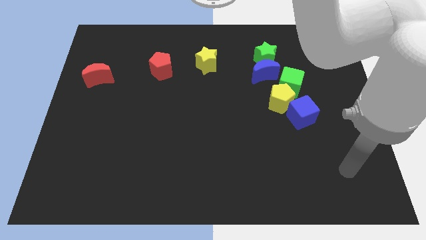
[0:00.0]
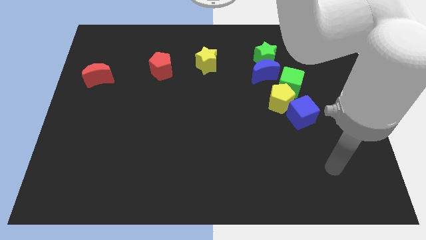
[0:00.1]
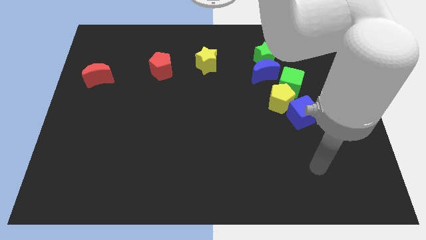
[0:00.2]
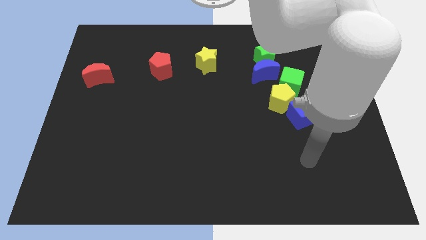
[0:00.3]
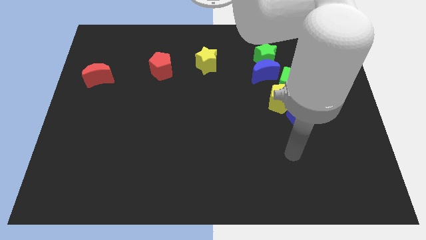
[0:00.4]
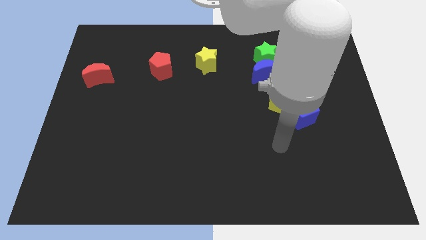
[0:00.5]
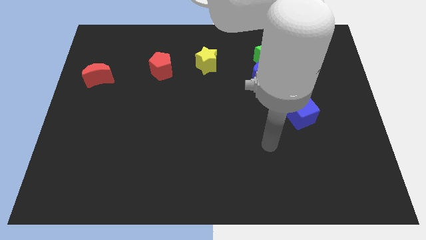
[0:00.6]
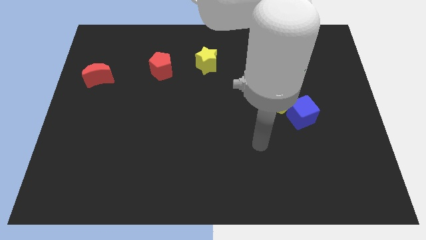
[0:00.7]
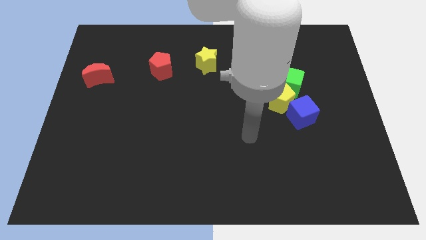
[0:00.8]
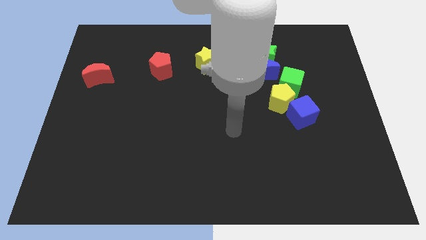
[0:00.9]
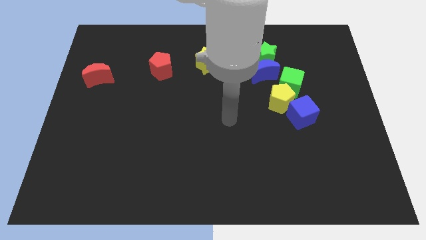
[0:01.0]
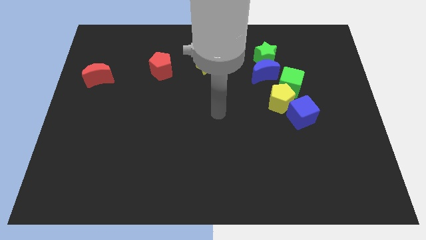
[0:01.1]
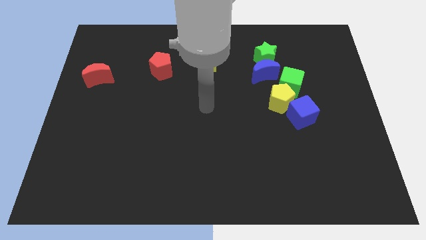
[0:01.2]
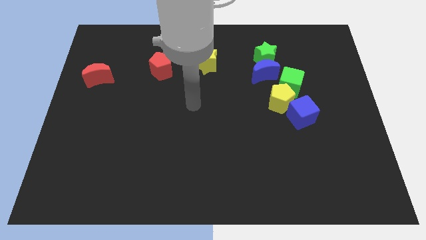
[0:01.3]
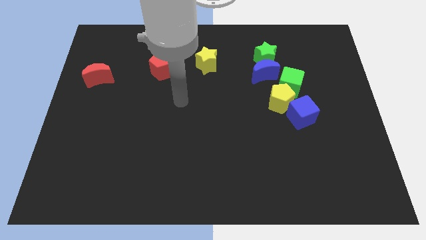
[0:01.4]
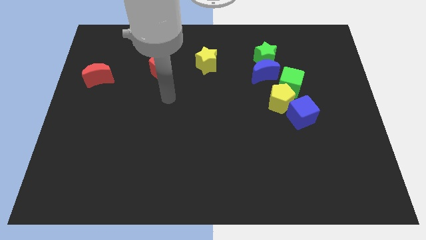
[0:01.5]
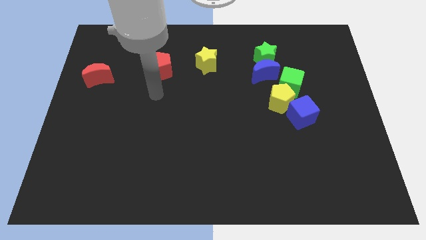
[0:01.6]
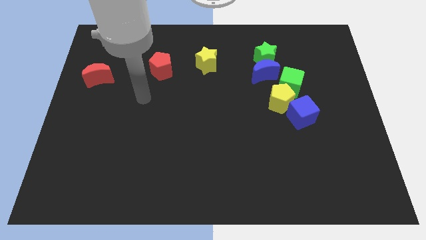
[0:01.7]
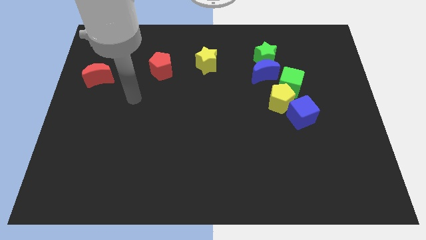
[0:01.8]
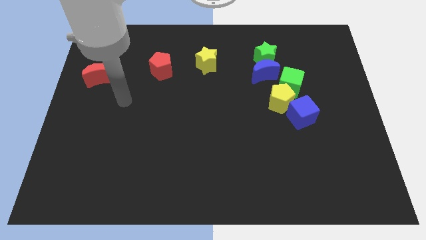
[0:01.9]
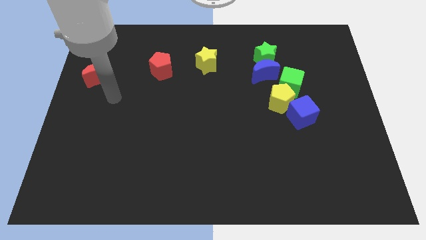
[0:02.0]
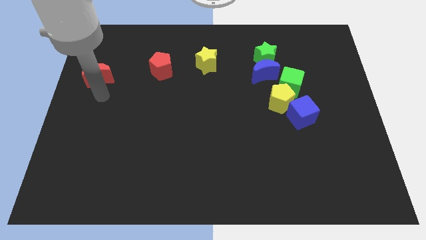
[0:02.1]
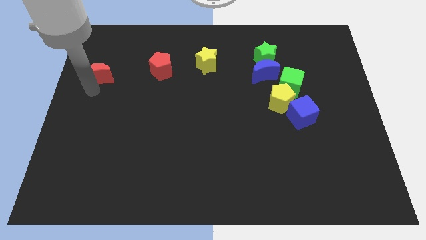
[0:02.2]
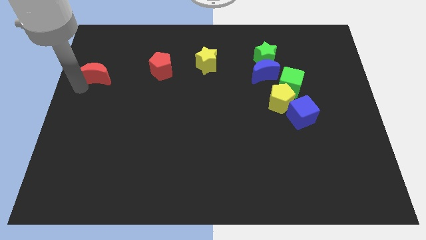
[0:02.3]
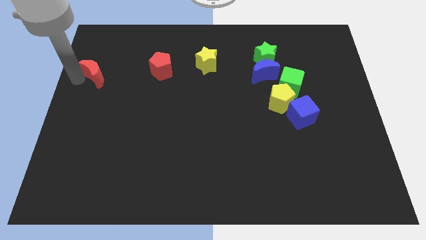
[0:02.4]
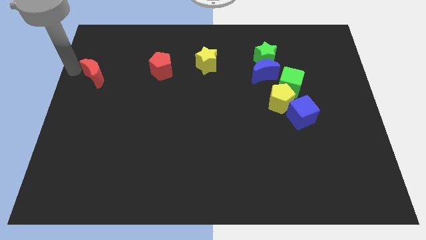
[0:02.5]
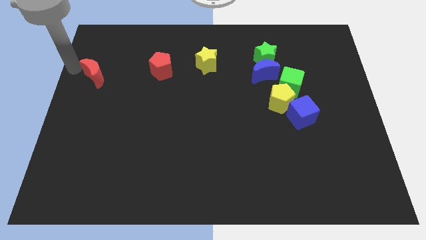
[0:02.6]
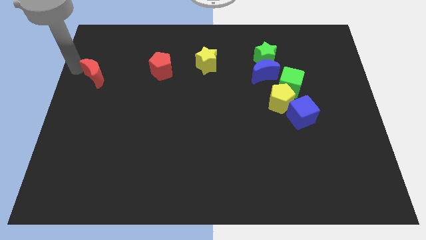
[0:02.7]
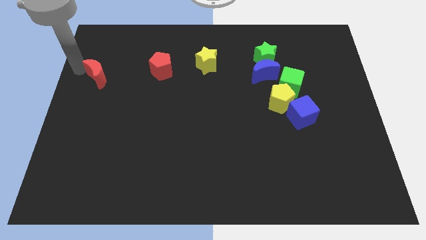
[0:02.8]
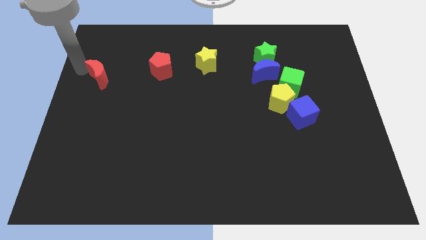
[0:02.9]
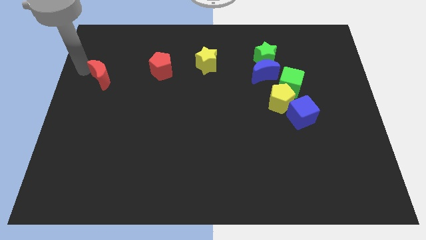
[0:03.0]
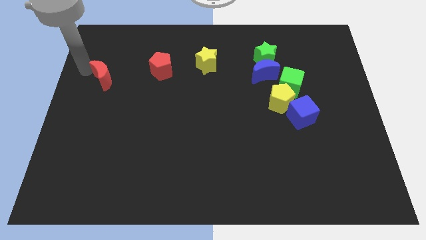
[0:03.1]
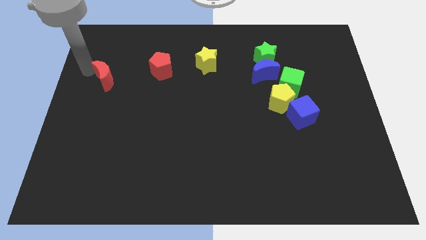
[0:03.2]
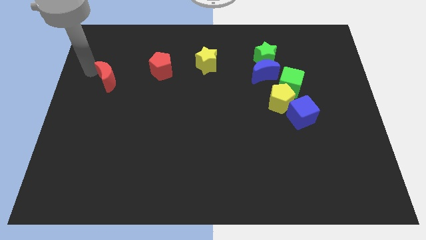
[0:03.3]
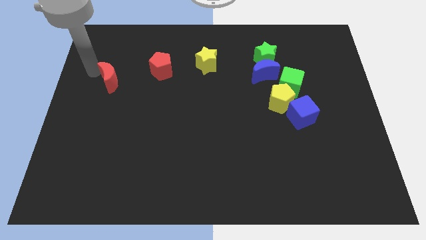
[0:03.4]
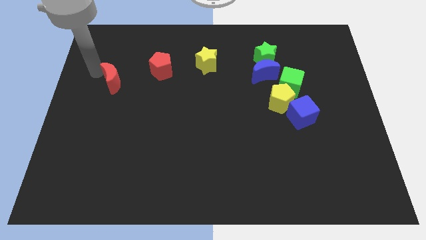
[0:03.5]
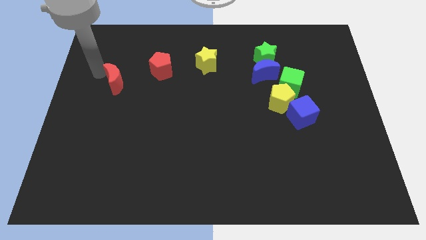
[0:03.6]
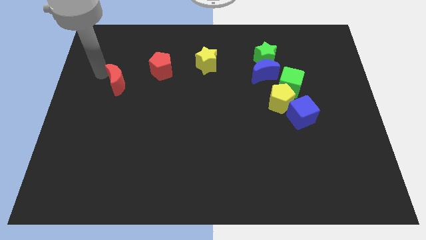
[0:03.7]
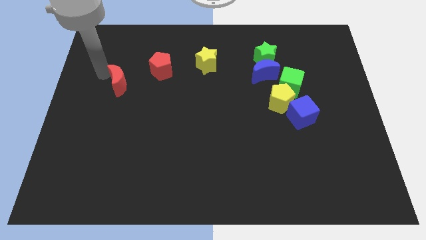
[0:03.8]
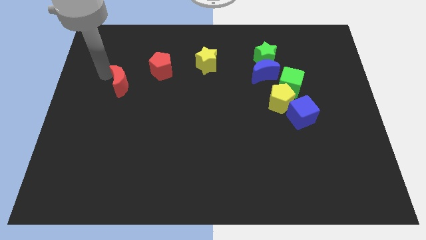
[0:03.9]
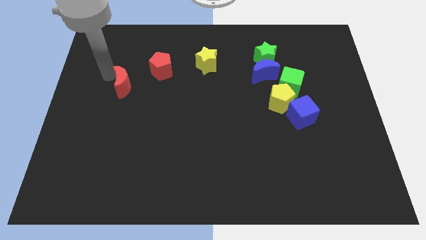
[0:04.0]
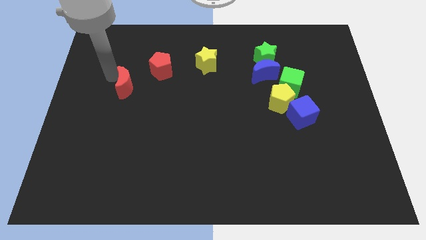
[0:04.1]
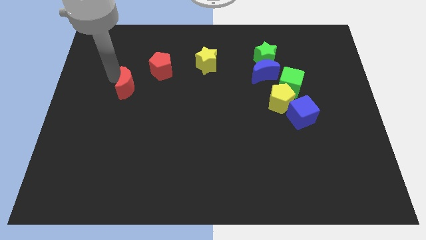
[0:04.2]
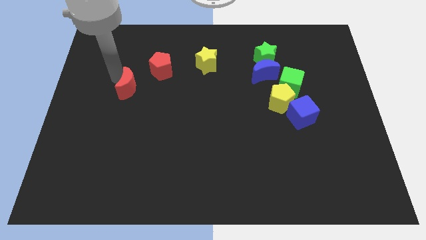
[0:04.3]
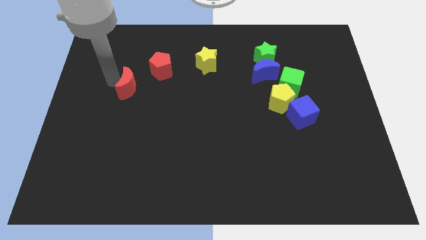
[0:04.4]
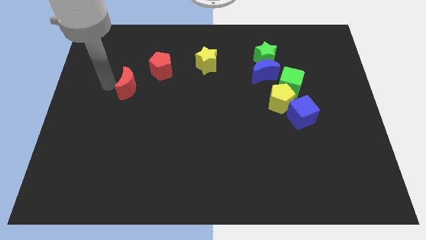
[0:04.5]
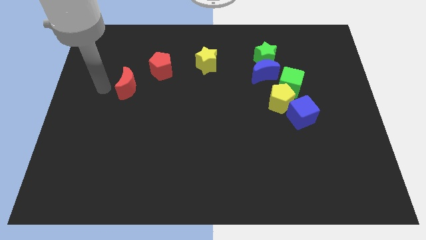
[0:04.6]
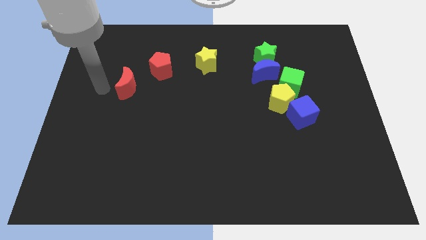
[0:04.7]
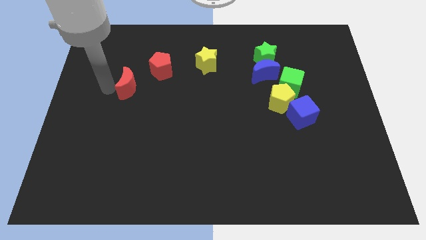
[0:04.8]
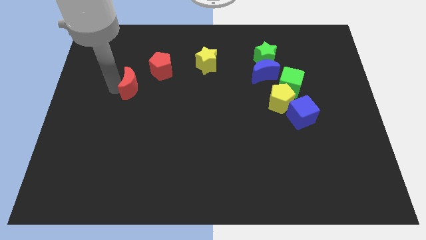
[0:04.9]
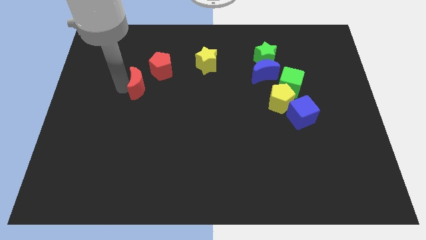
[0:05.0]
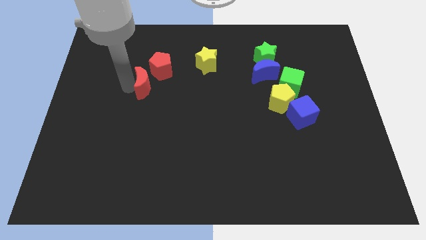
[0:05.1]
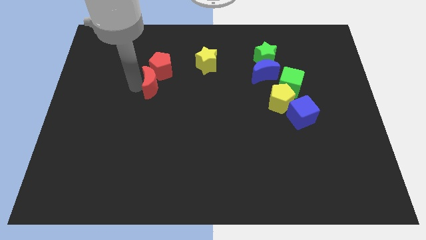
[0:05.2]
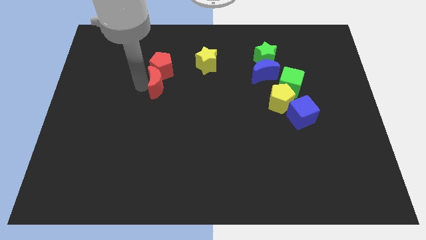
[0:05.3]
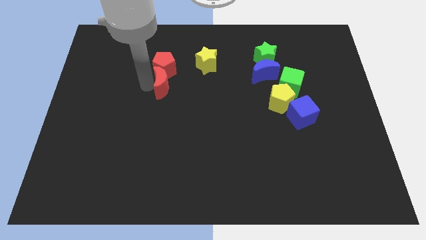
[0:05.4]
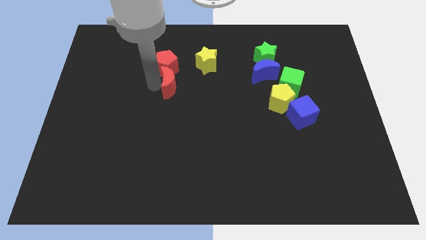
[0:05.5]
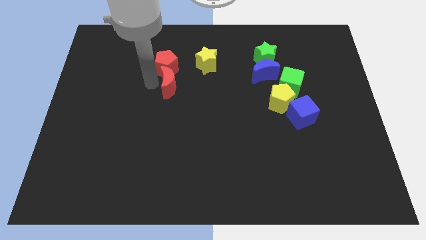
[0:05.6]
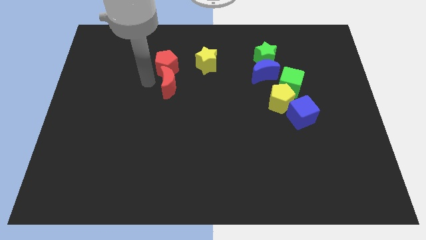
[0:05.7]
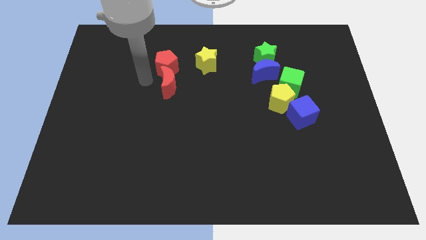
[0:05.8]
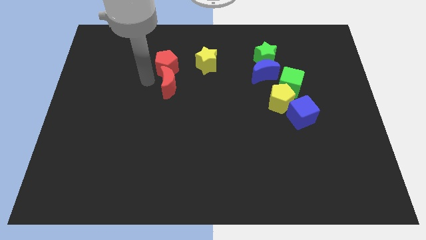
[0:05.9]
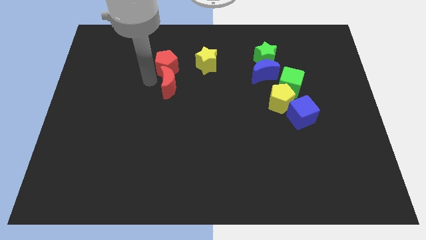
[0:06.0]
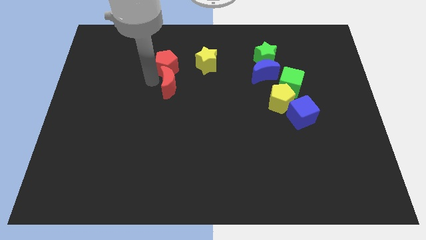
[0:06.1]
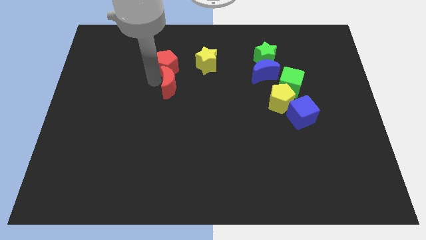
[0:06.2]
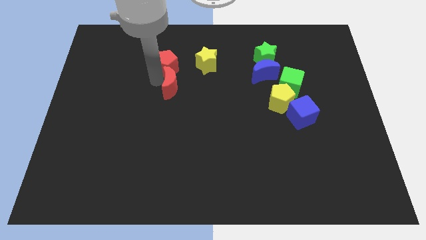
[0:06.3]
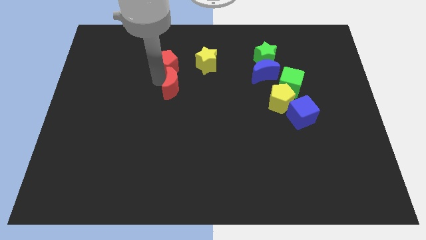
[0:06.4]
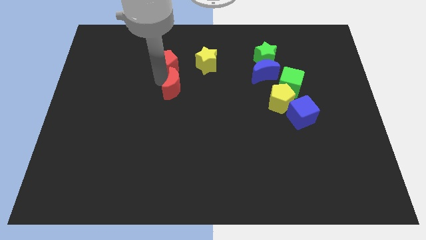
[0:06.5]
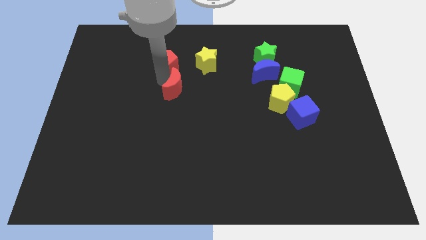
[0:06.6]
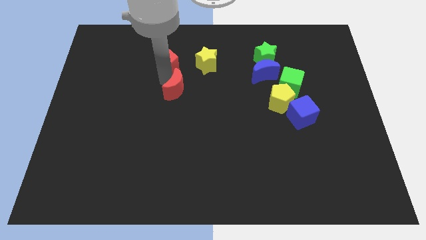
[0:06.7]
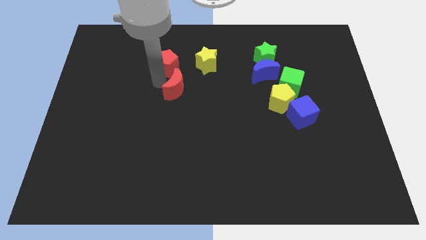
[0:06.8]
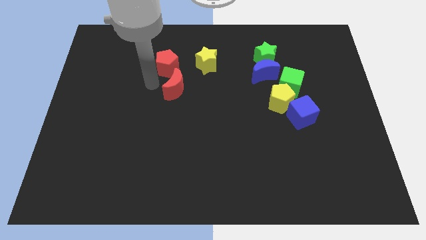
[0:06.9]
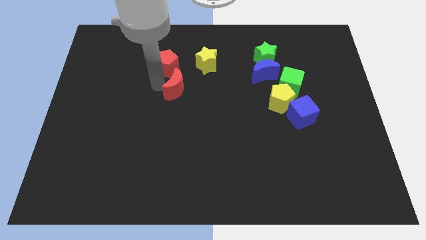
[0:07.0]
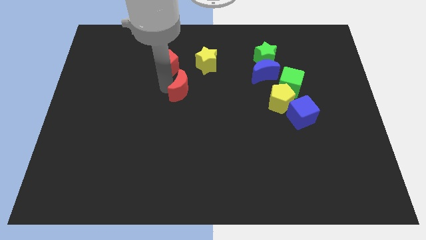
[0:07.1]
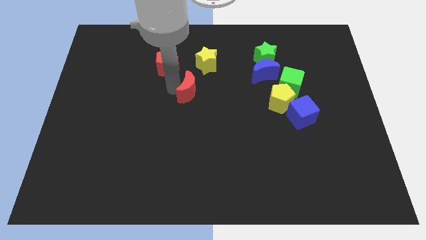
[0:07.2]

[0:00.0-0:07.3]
put the red moon below the yellow star

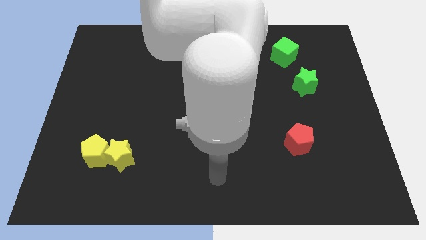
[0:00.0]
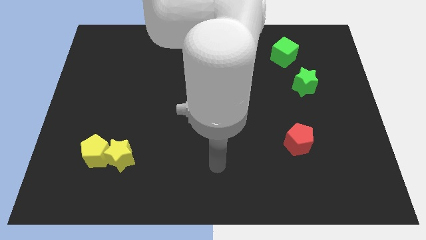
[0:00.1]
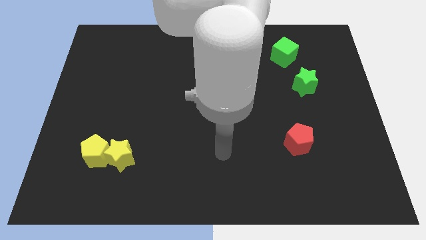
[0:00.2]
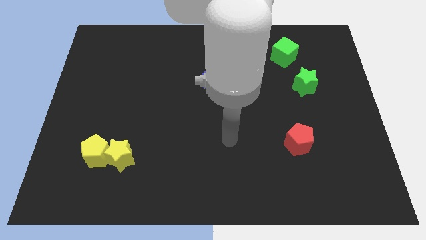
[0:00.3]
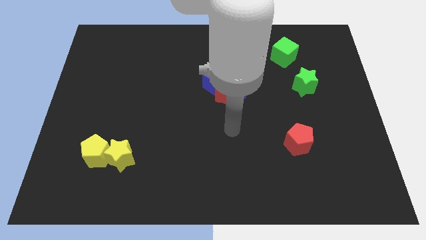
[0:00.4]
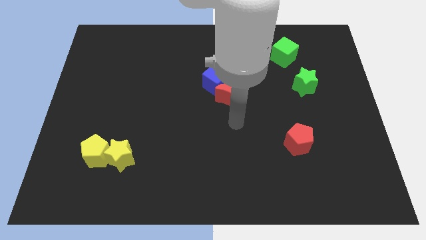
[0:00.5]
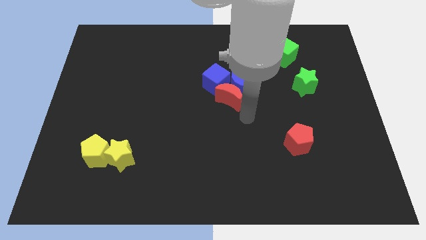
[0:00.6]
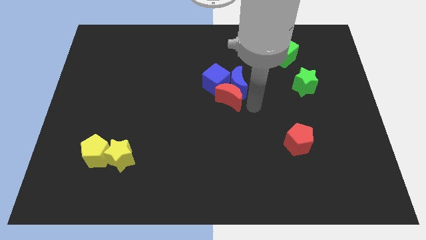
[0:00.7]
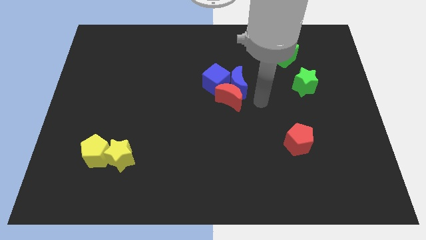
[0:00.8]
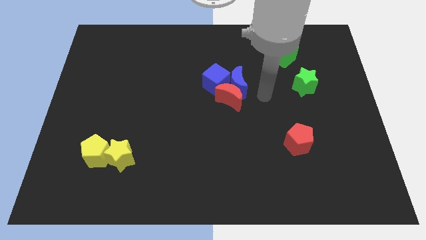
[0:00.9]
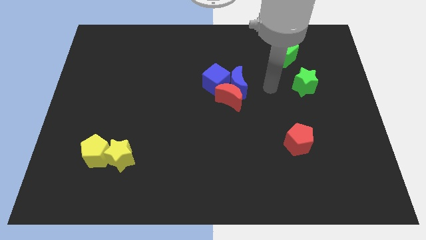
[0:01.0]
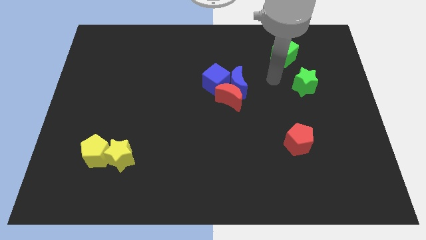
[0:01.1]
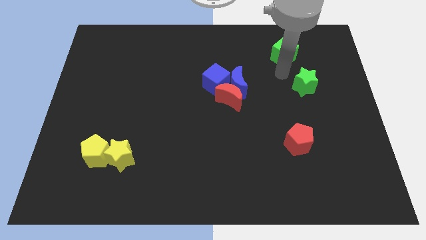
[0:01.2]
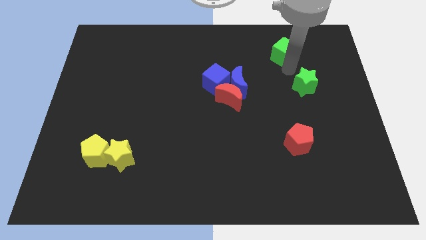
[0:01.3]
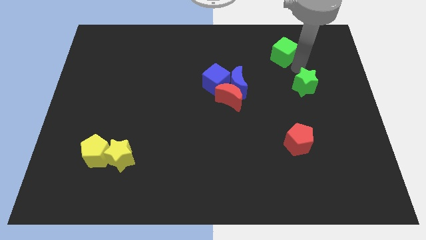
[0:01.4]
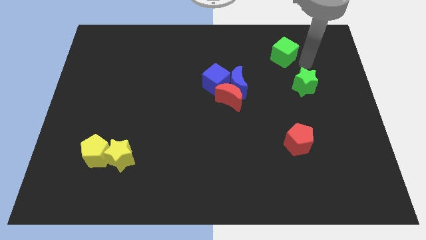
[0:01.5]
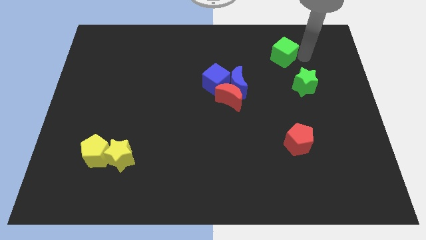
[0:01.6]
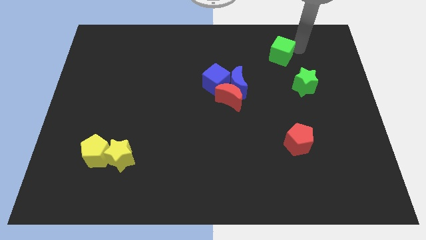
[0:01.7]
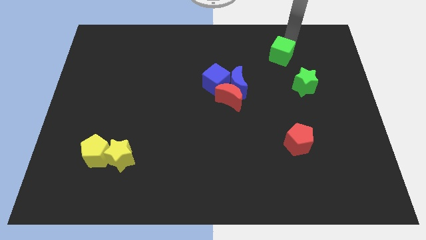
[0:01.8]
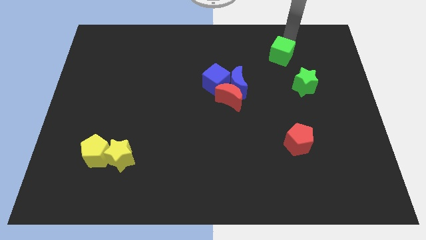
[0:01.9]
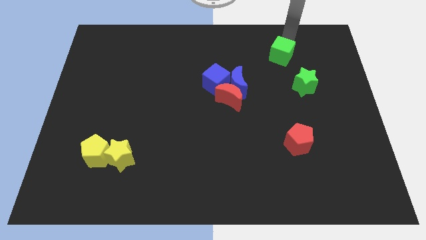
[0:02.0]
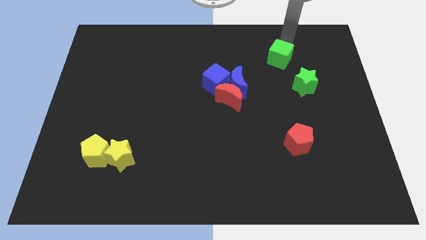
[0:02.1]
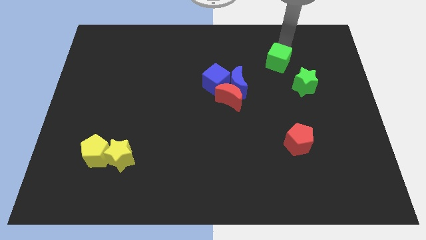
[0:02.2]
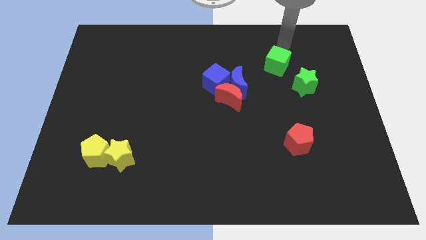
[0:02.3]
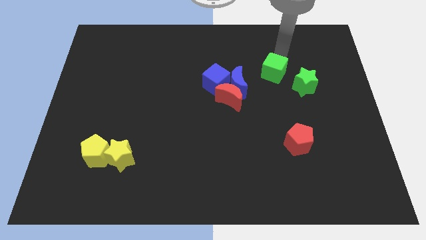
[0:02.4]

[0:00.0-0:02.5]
put the green cube just left of the green star
